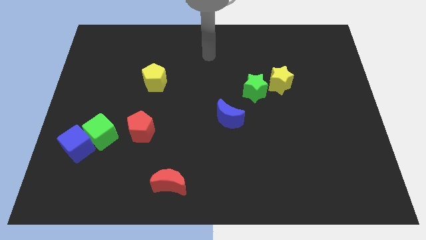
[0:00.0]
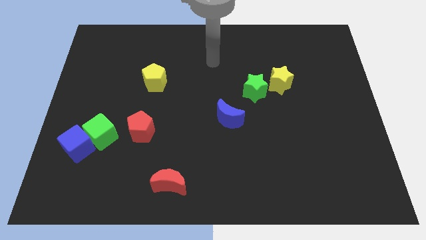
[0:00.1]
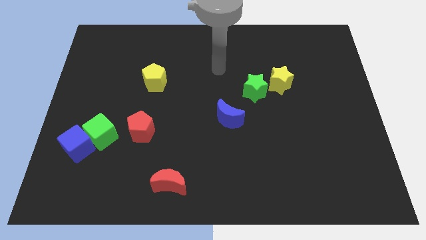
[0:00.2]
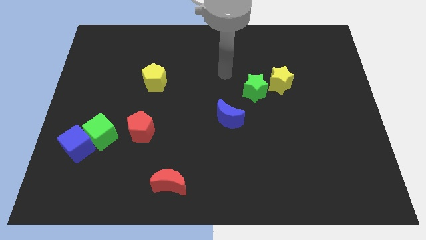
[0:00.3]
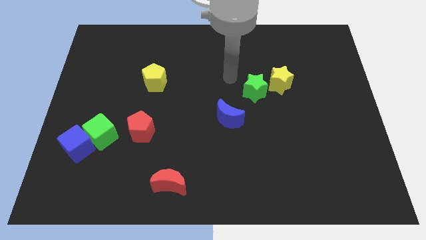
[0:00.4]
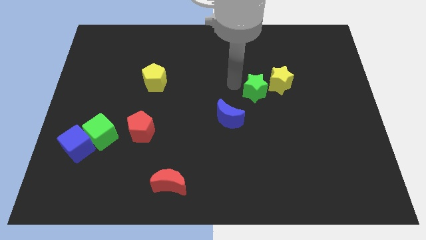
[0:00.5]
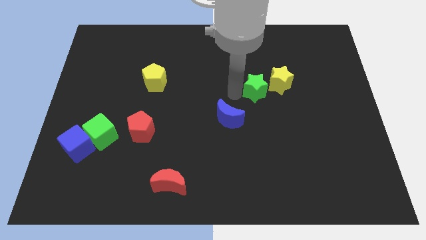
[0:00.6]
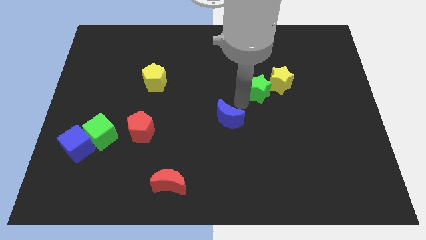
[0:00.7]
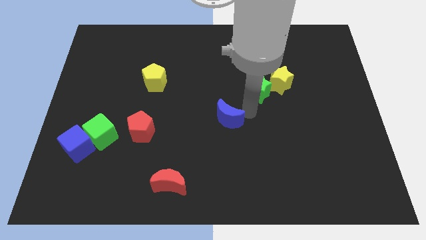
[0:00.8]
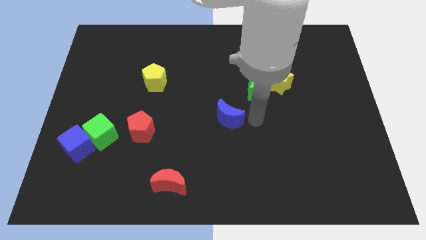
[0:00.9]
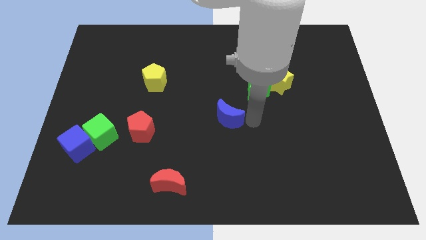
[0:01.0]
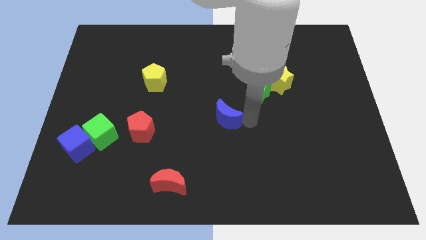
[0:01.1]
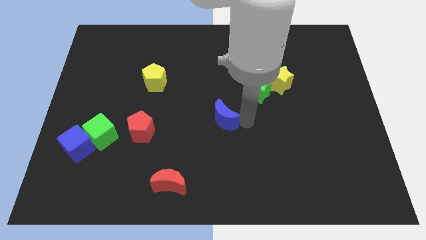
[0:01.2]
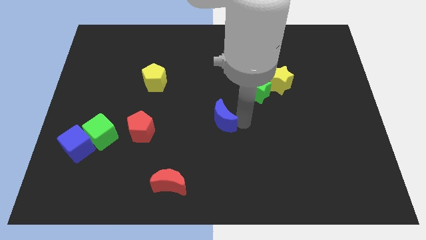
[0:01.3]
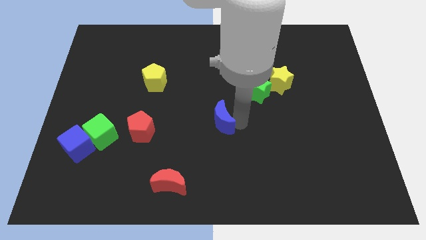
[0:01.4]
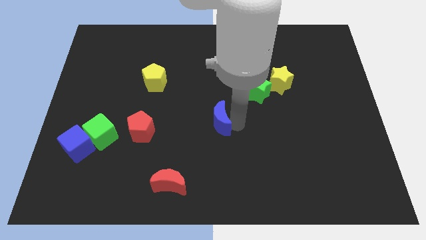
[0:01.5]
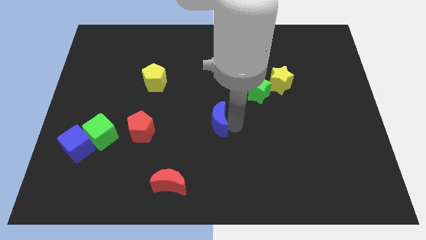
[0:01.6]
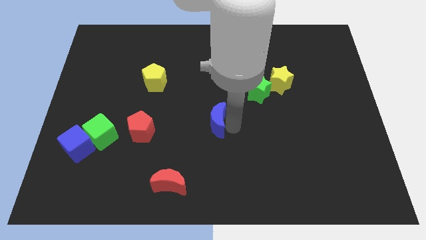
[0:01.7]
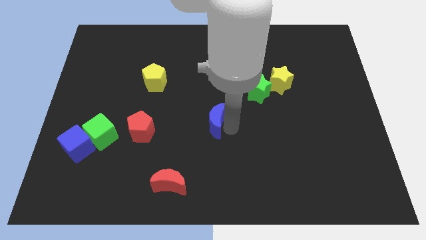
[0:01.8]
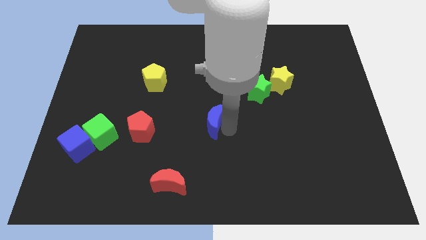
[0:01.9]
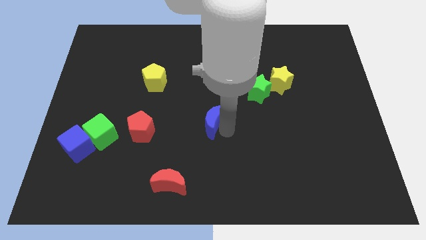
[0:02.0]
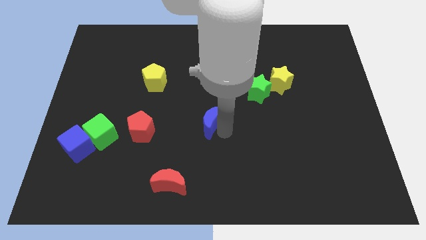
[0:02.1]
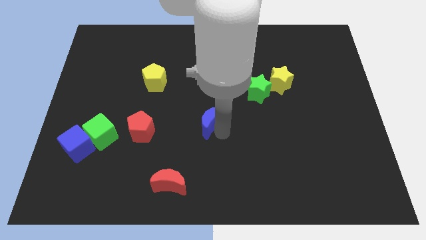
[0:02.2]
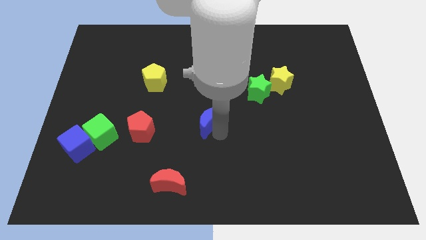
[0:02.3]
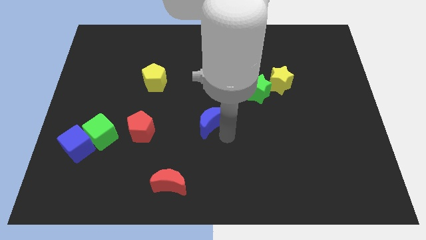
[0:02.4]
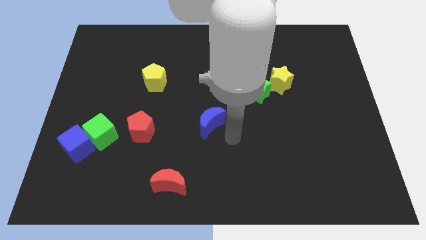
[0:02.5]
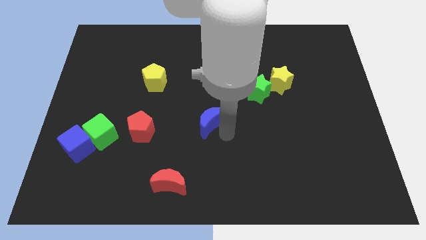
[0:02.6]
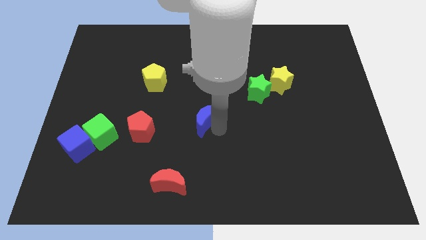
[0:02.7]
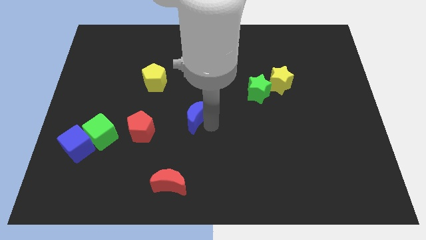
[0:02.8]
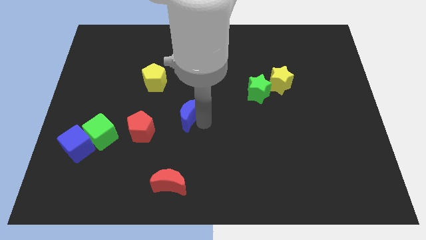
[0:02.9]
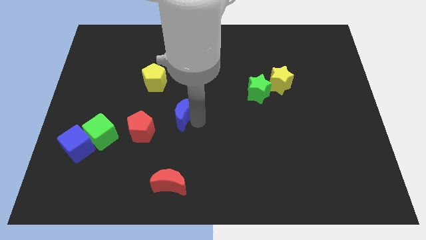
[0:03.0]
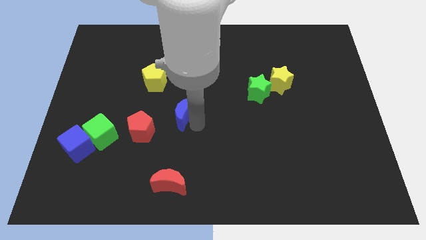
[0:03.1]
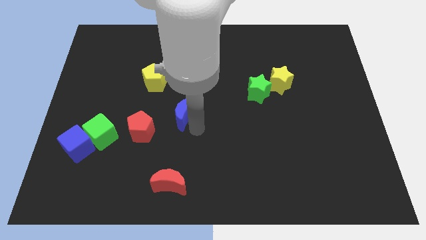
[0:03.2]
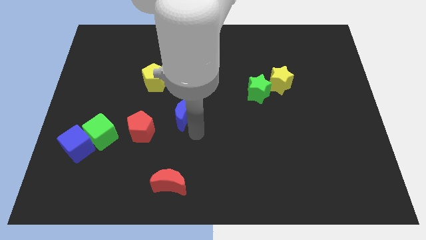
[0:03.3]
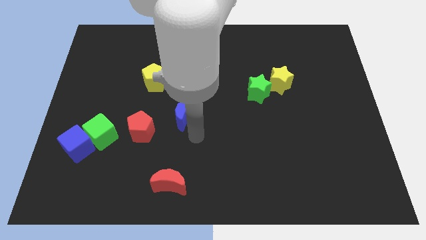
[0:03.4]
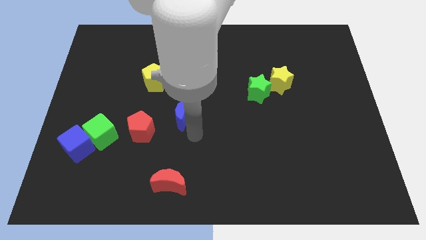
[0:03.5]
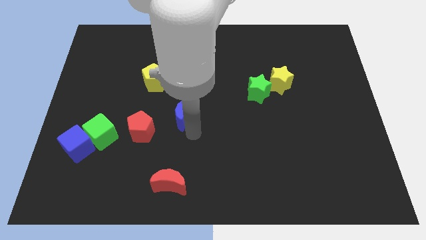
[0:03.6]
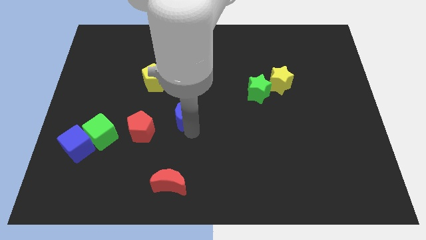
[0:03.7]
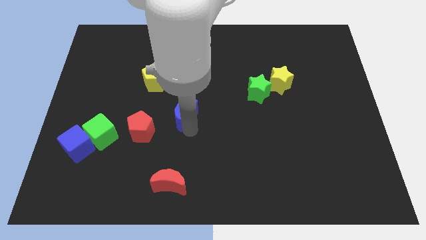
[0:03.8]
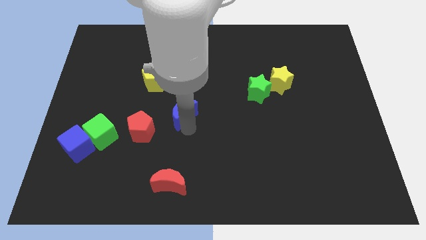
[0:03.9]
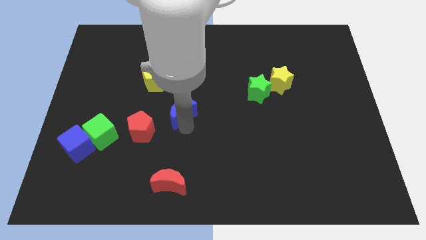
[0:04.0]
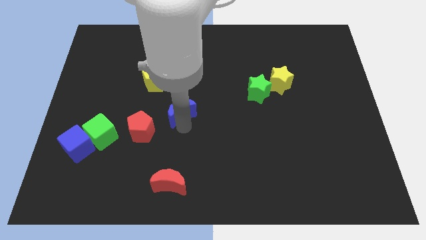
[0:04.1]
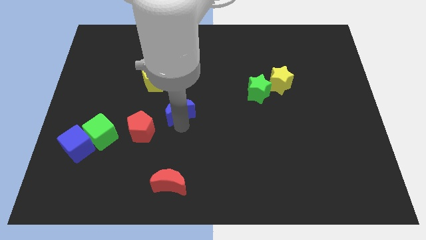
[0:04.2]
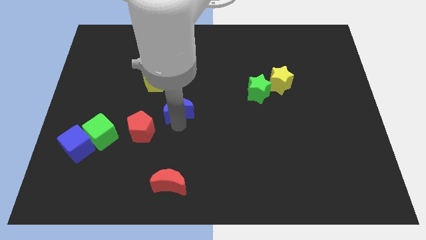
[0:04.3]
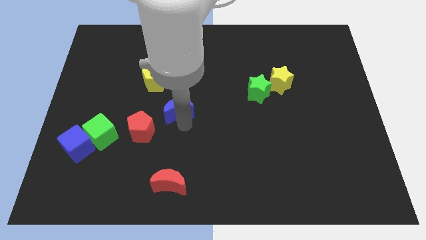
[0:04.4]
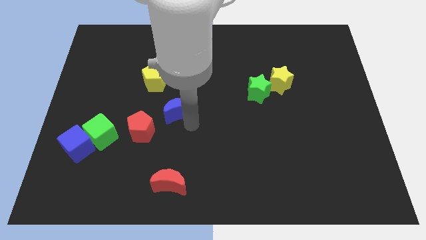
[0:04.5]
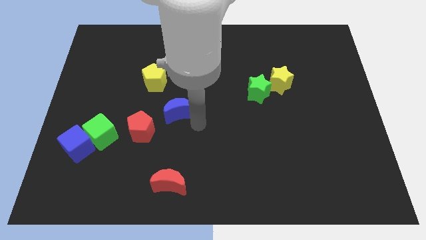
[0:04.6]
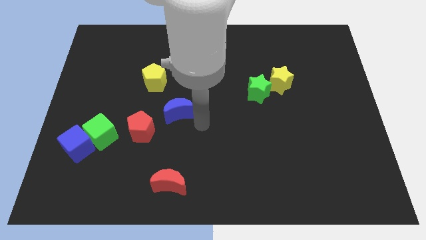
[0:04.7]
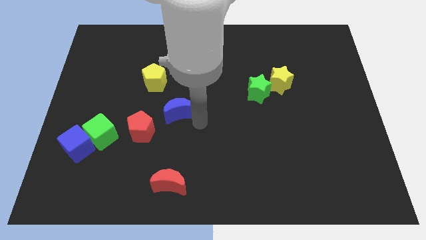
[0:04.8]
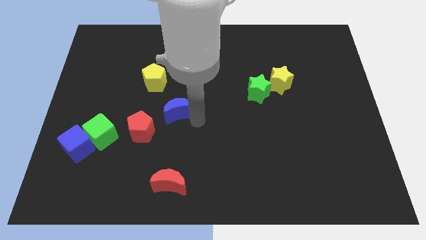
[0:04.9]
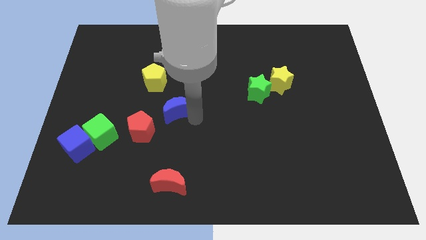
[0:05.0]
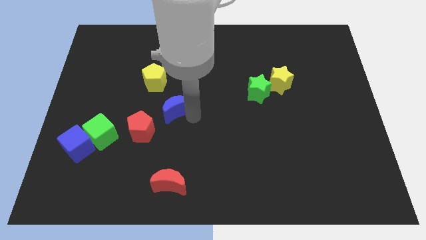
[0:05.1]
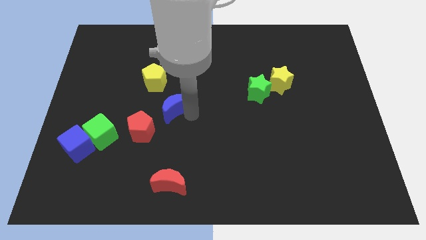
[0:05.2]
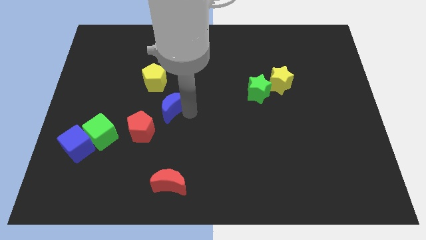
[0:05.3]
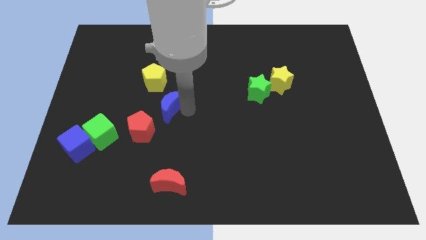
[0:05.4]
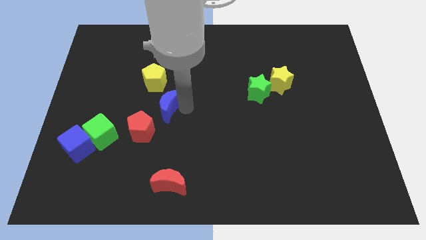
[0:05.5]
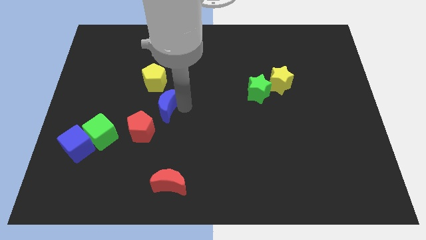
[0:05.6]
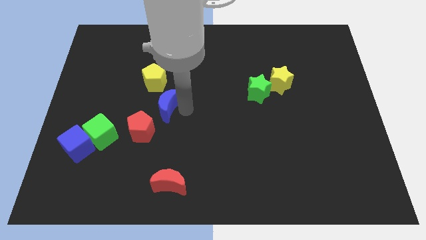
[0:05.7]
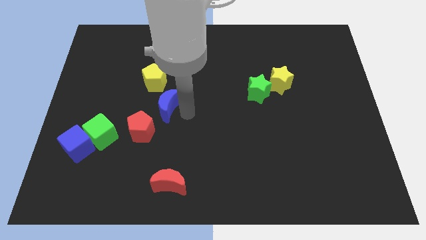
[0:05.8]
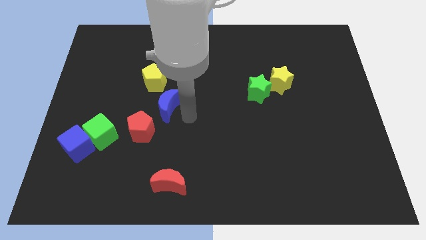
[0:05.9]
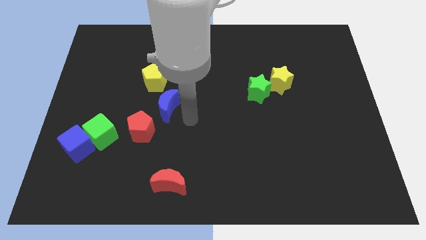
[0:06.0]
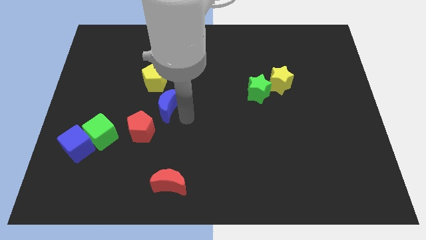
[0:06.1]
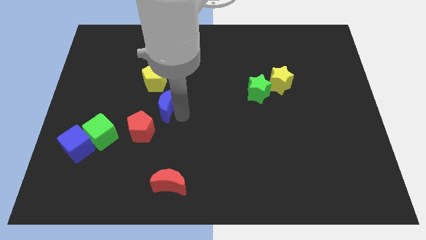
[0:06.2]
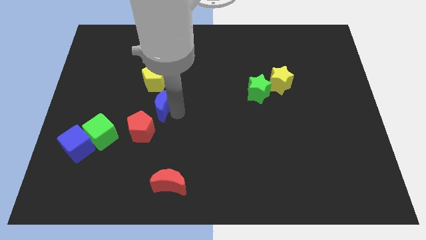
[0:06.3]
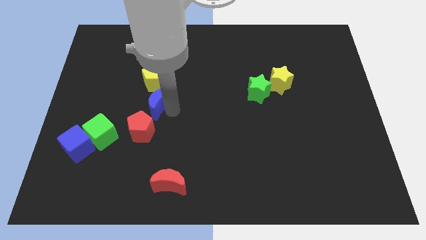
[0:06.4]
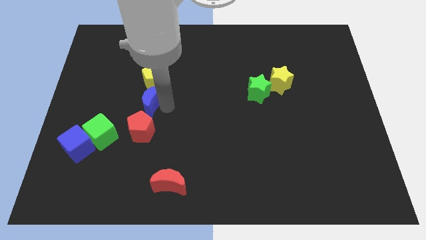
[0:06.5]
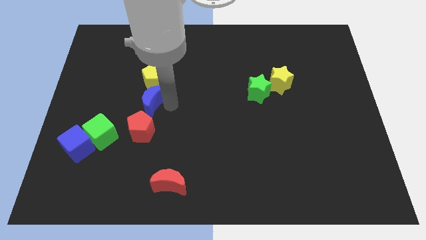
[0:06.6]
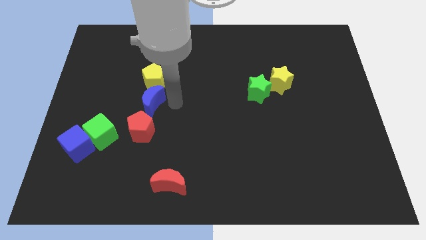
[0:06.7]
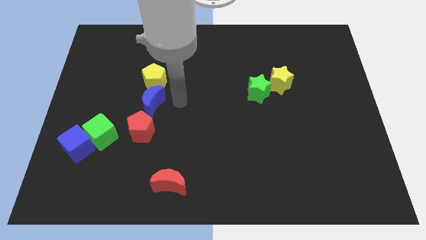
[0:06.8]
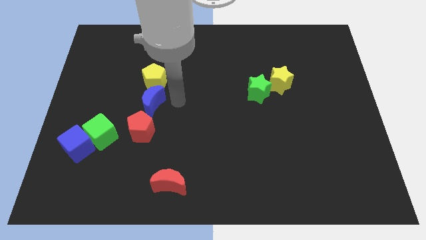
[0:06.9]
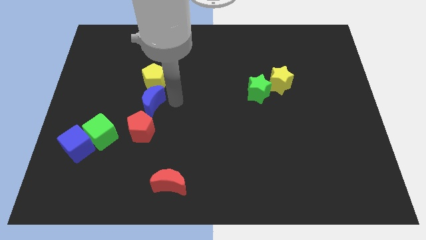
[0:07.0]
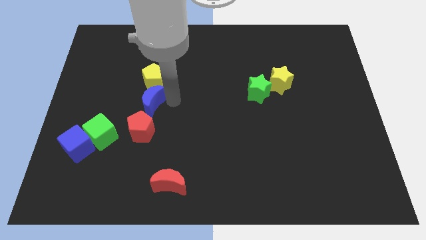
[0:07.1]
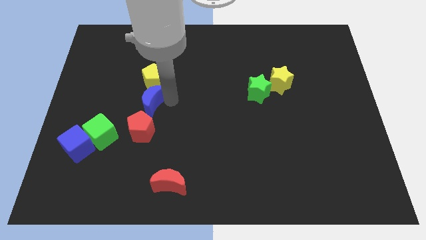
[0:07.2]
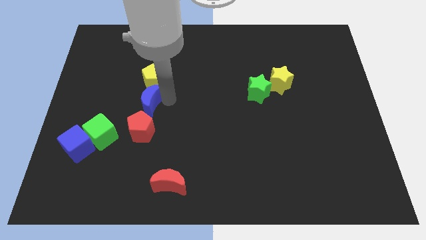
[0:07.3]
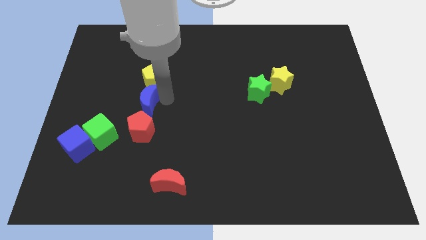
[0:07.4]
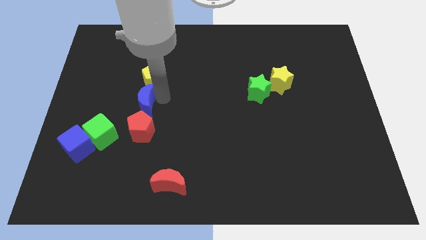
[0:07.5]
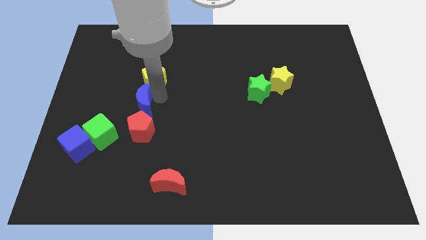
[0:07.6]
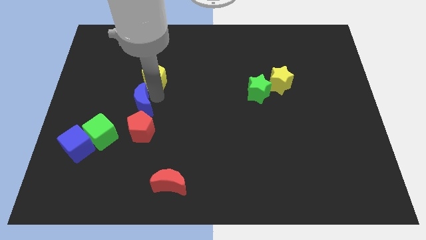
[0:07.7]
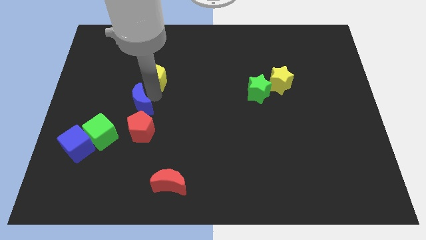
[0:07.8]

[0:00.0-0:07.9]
slide the blue moon left

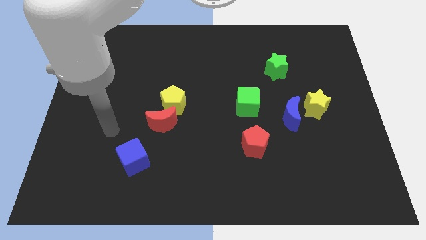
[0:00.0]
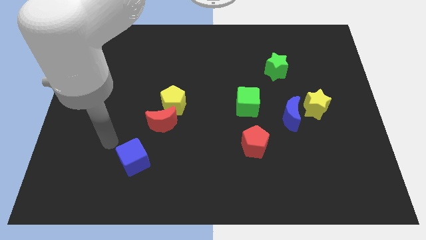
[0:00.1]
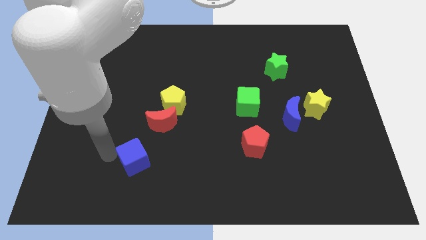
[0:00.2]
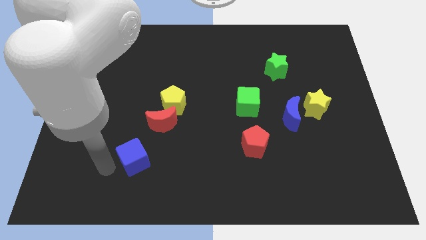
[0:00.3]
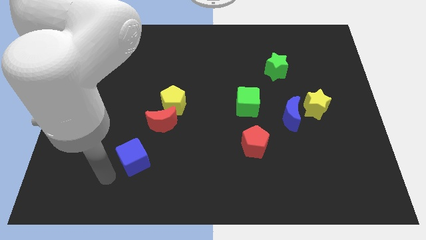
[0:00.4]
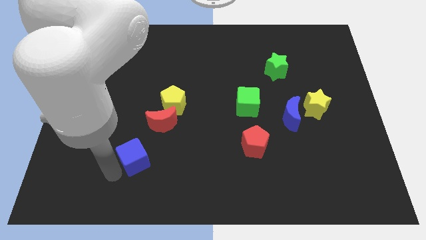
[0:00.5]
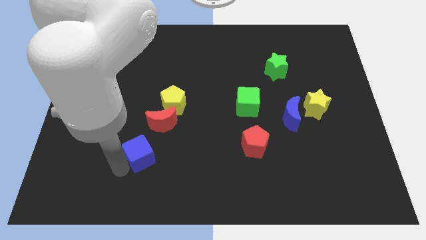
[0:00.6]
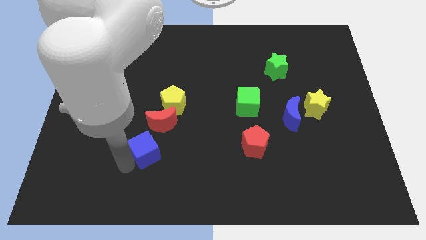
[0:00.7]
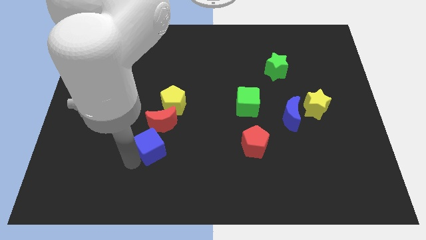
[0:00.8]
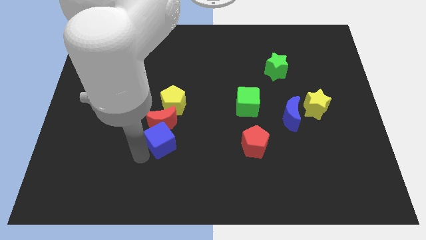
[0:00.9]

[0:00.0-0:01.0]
slide the blue cube up and to the right diagonally a little bit
